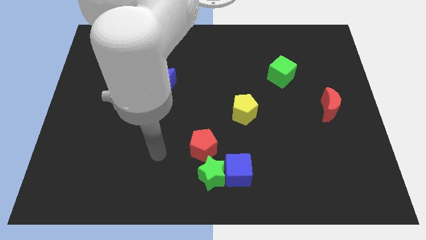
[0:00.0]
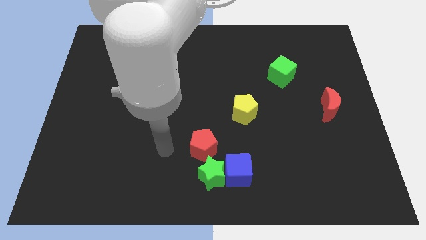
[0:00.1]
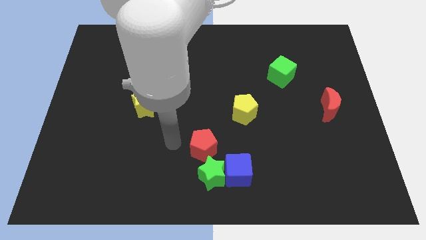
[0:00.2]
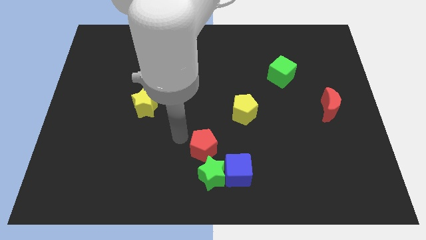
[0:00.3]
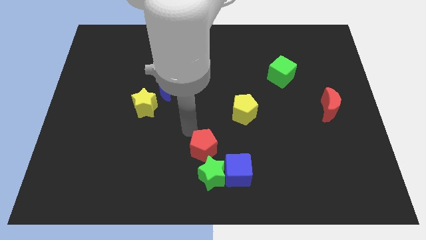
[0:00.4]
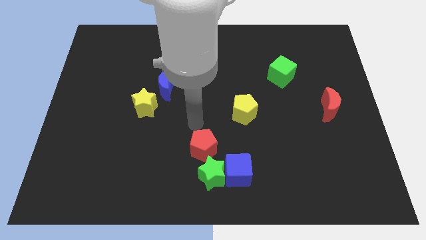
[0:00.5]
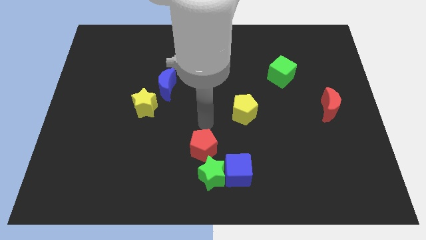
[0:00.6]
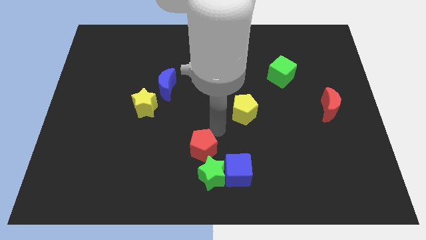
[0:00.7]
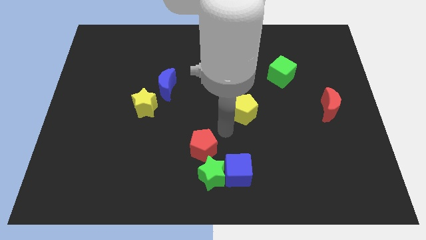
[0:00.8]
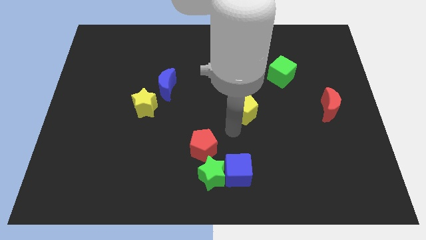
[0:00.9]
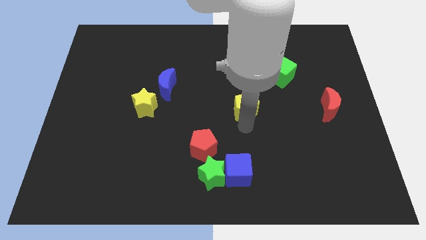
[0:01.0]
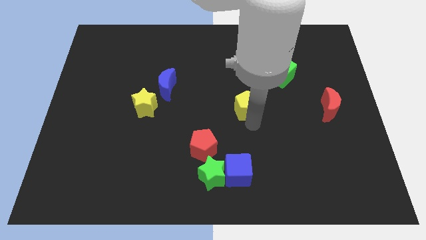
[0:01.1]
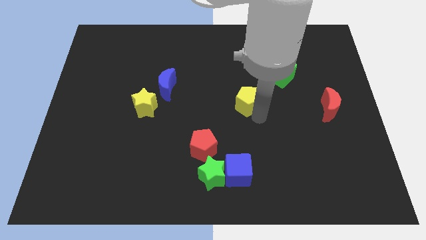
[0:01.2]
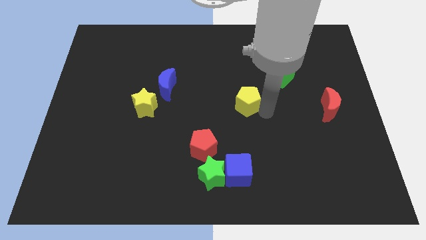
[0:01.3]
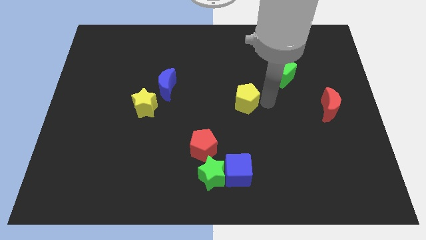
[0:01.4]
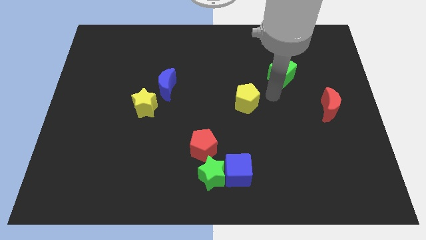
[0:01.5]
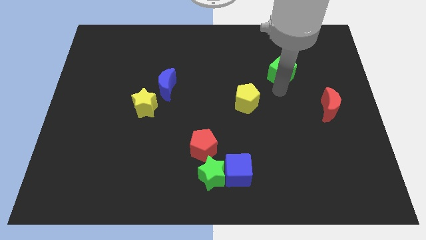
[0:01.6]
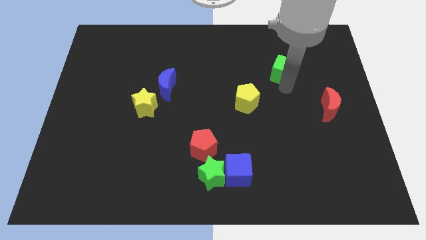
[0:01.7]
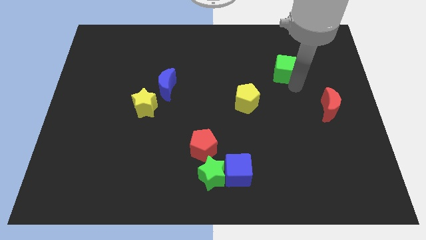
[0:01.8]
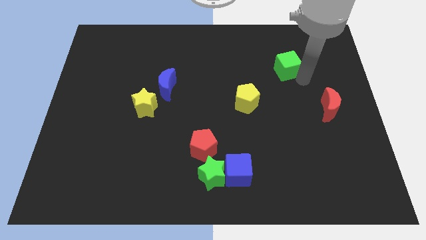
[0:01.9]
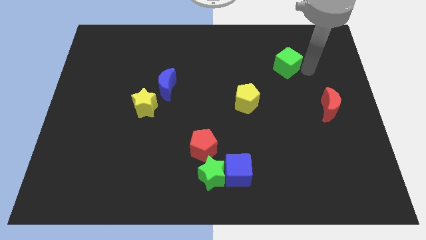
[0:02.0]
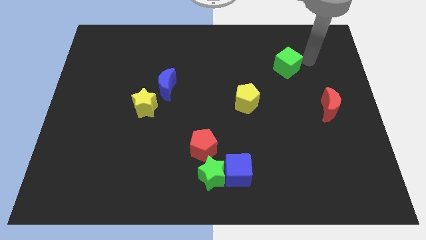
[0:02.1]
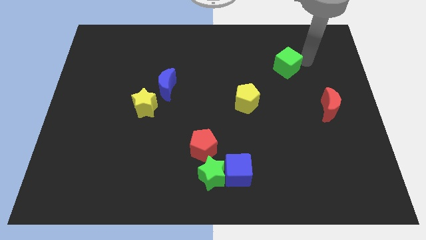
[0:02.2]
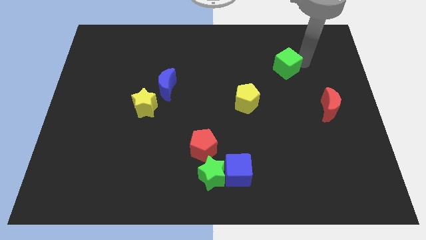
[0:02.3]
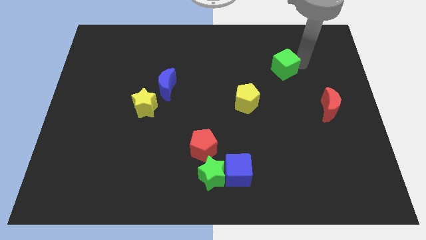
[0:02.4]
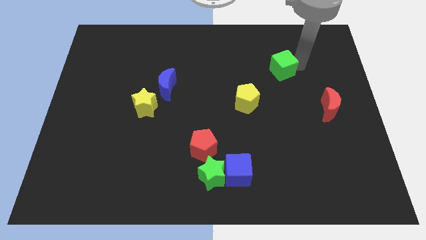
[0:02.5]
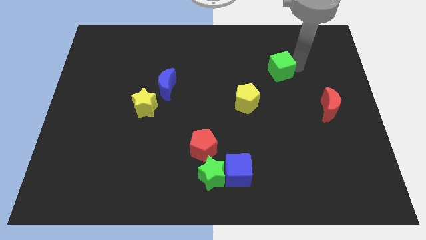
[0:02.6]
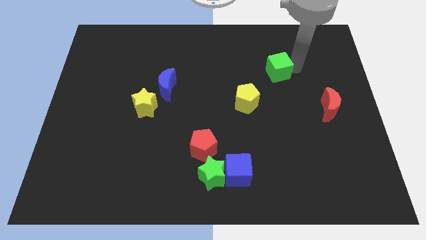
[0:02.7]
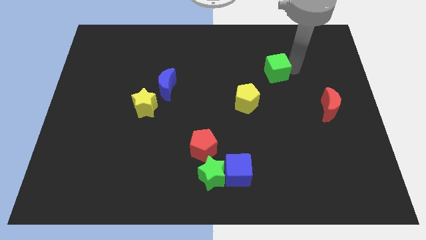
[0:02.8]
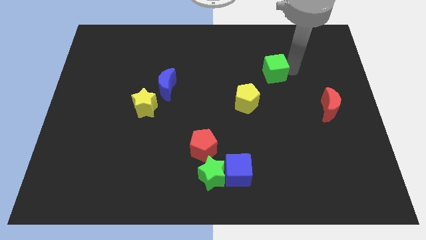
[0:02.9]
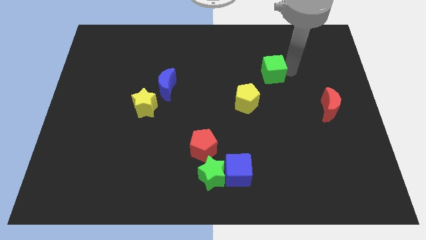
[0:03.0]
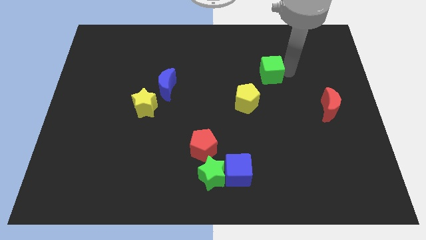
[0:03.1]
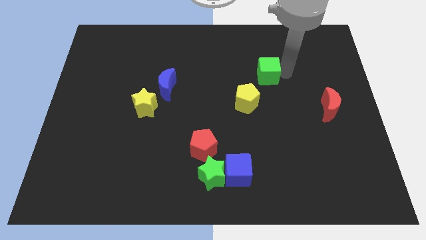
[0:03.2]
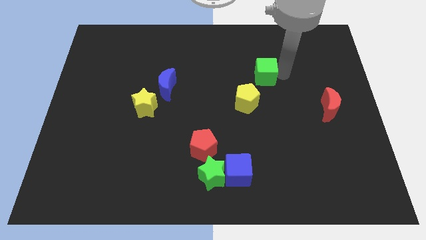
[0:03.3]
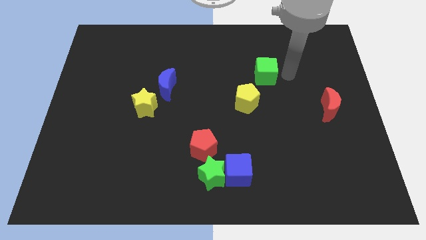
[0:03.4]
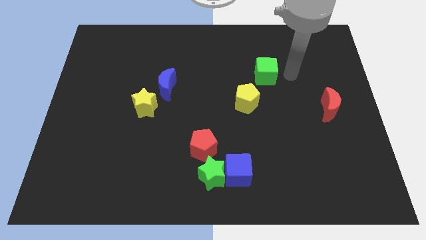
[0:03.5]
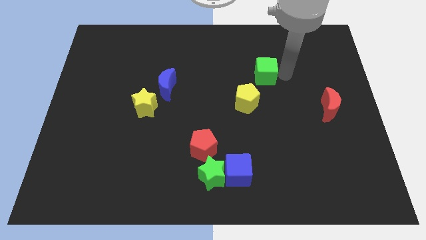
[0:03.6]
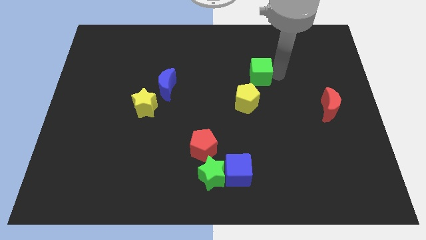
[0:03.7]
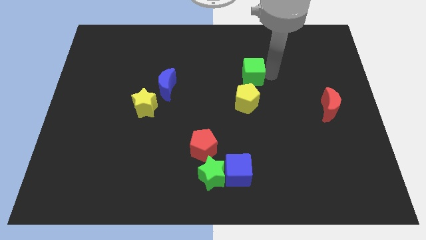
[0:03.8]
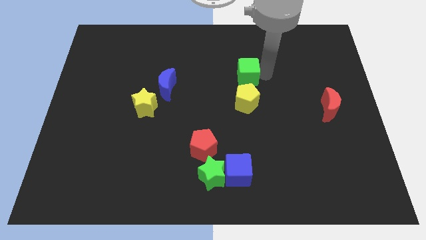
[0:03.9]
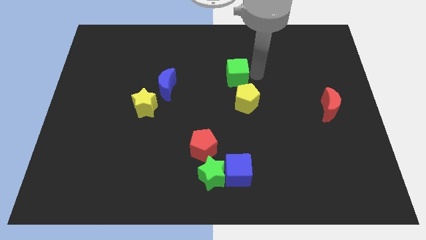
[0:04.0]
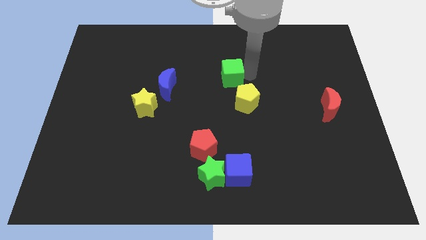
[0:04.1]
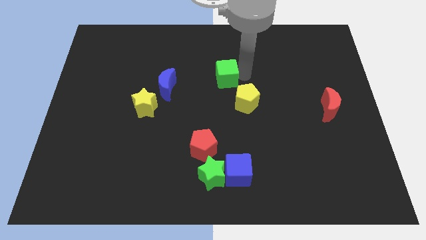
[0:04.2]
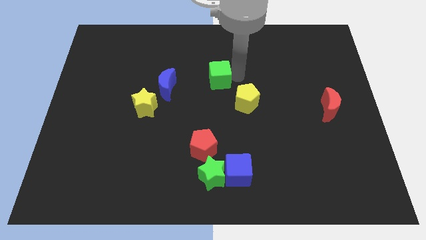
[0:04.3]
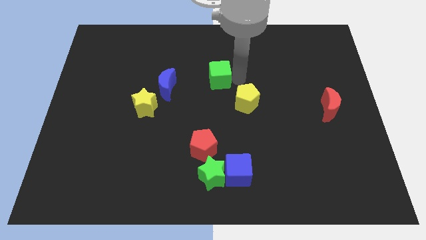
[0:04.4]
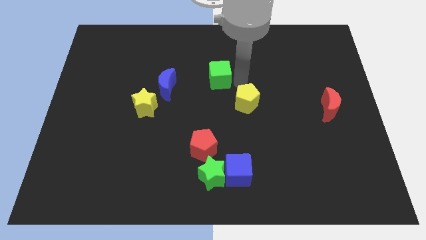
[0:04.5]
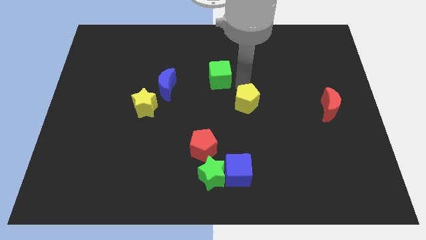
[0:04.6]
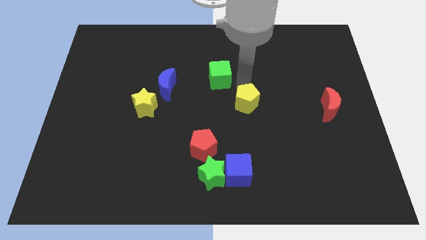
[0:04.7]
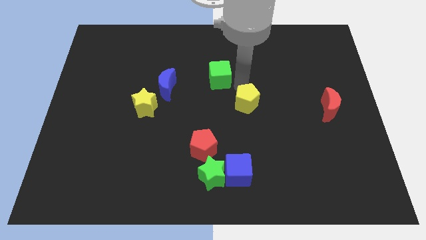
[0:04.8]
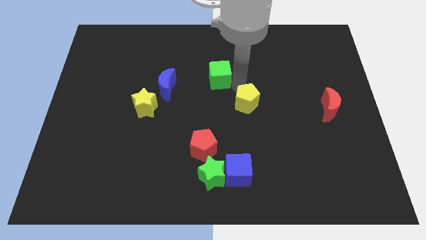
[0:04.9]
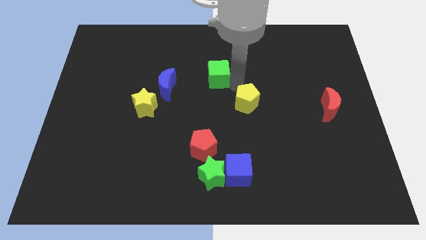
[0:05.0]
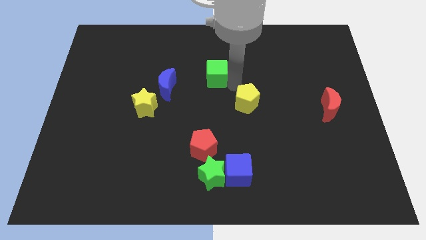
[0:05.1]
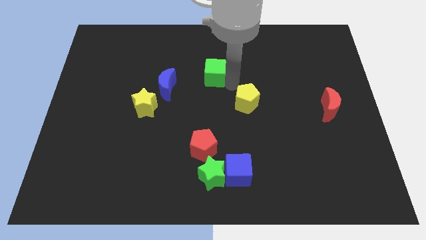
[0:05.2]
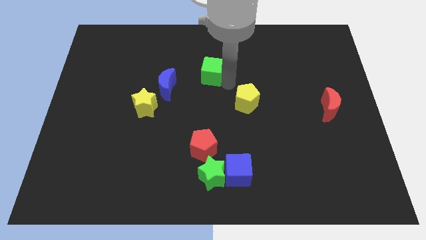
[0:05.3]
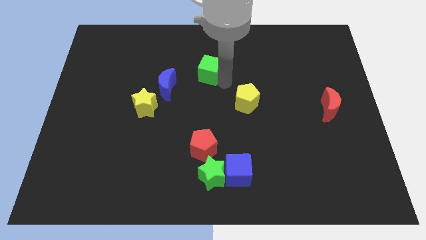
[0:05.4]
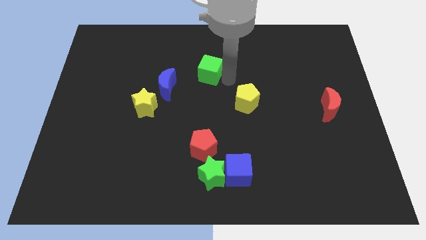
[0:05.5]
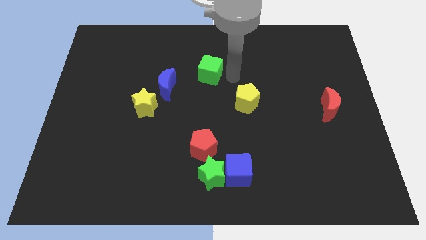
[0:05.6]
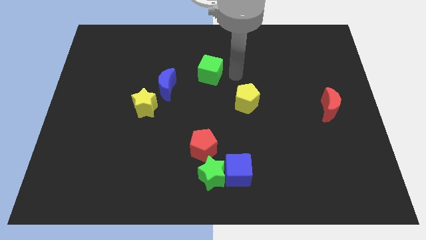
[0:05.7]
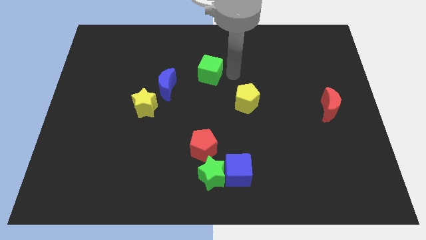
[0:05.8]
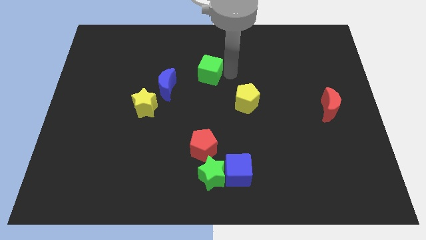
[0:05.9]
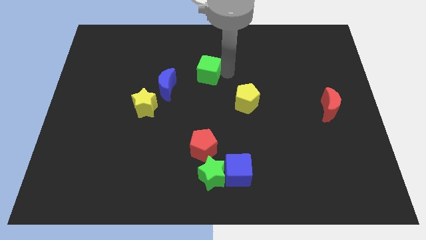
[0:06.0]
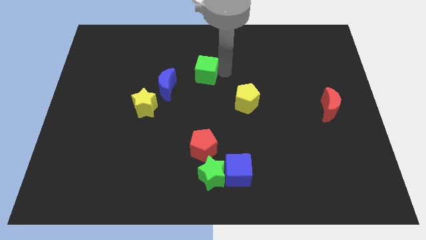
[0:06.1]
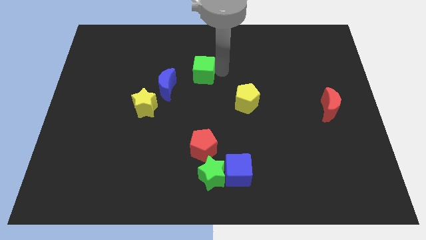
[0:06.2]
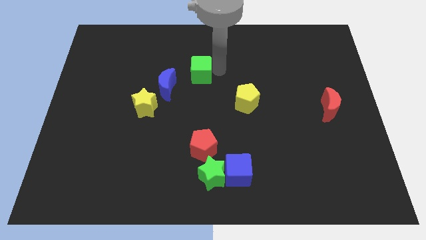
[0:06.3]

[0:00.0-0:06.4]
slide the green cube to the left

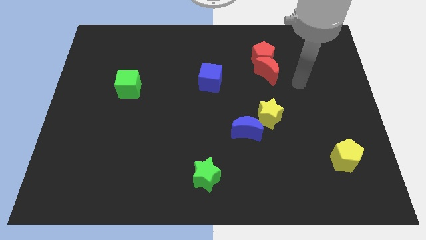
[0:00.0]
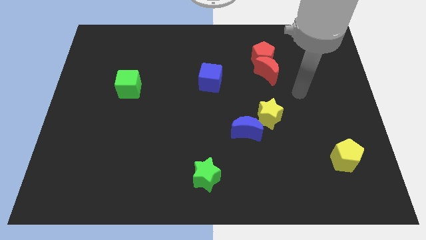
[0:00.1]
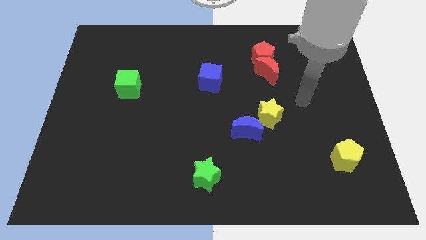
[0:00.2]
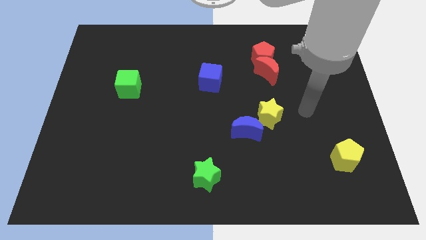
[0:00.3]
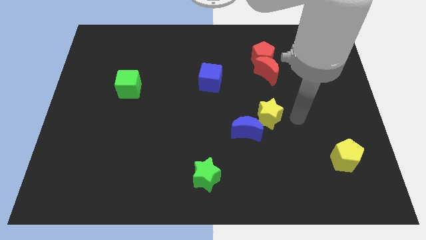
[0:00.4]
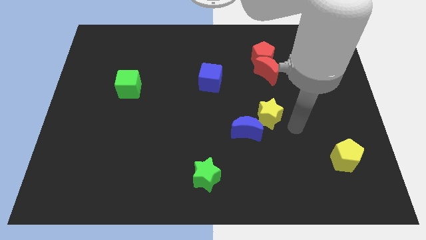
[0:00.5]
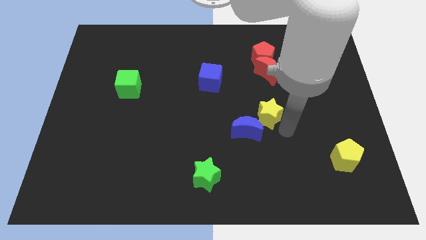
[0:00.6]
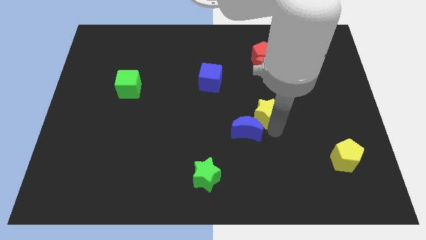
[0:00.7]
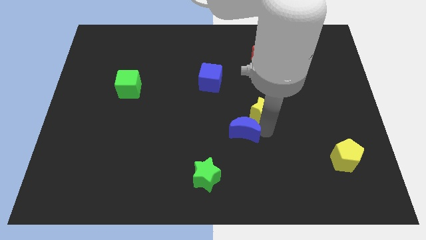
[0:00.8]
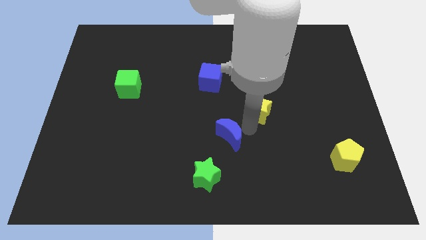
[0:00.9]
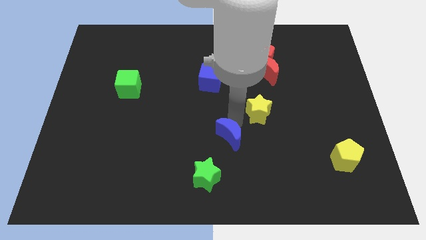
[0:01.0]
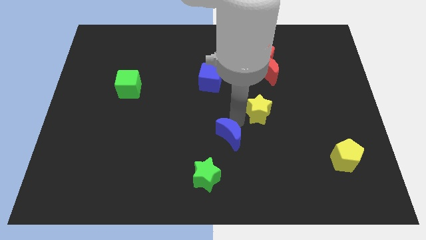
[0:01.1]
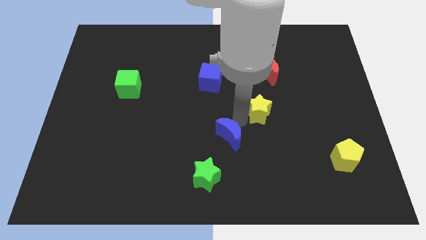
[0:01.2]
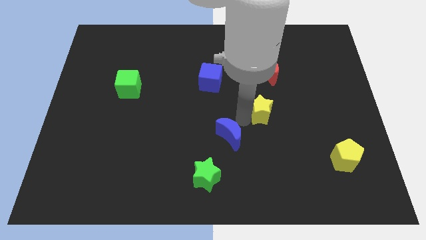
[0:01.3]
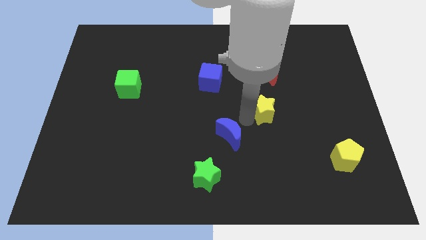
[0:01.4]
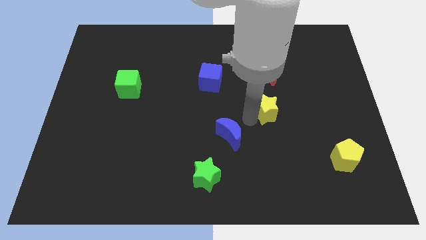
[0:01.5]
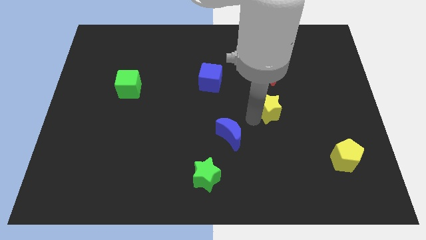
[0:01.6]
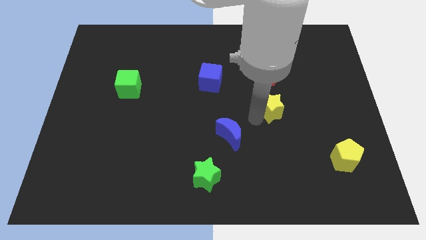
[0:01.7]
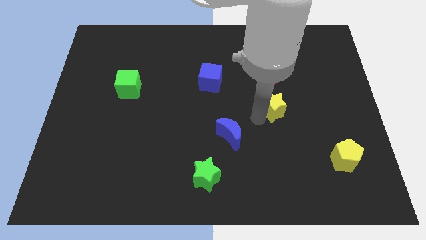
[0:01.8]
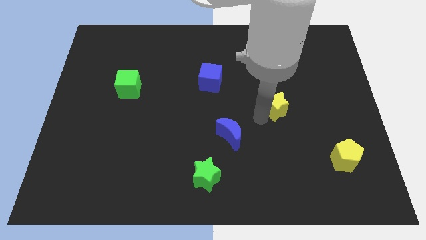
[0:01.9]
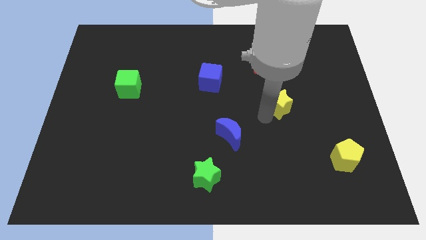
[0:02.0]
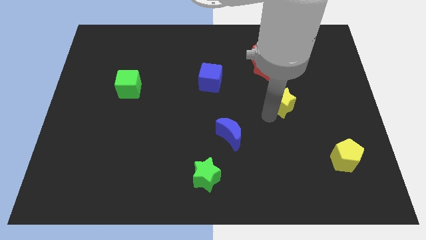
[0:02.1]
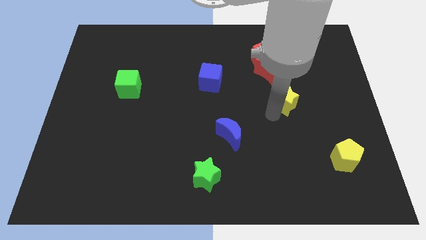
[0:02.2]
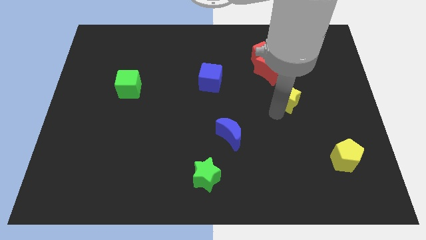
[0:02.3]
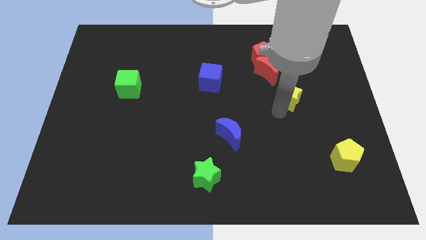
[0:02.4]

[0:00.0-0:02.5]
slide the yellow star a bit up and right
